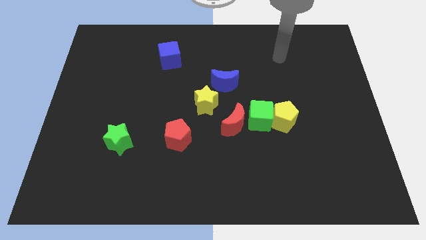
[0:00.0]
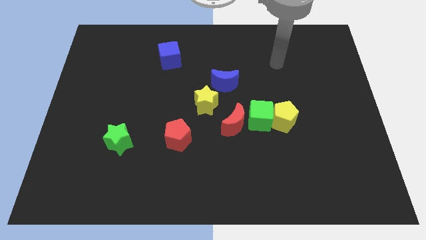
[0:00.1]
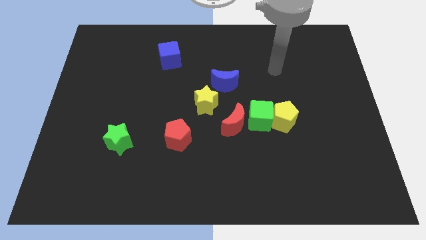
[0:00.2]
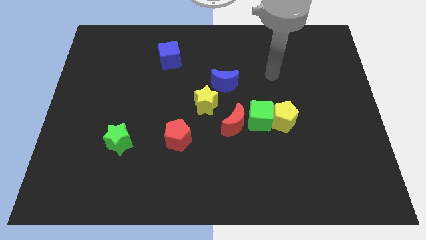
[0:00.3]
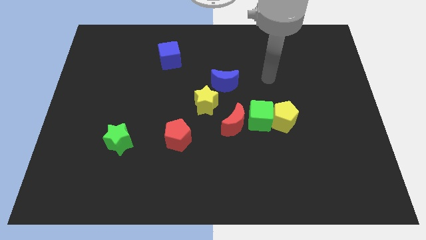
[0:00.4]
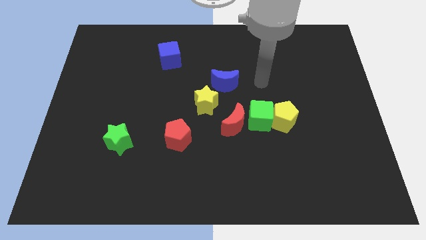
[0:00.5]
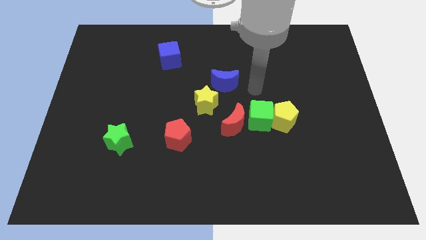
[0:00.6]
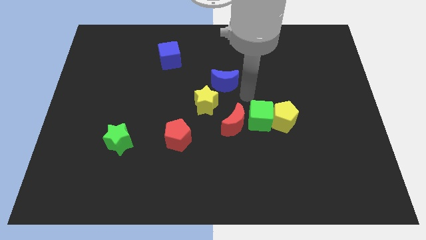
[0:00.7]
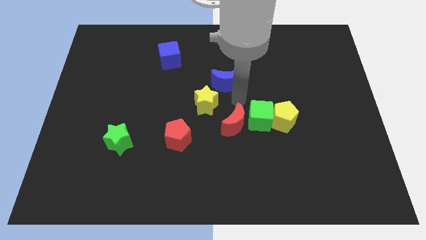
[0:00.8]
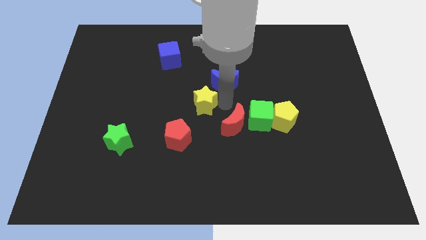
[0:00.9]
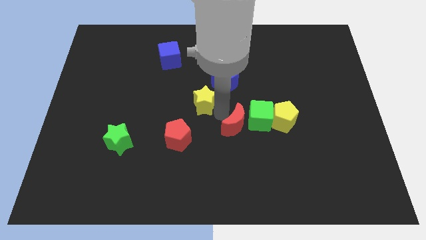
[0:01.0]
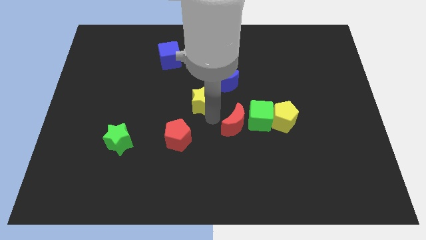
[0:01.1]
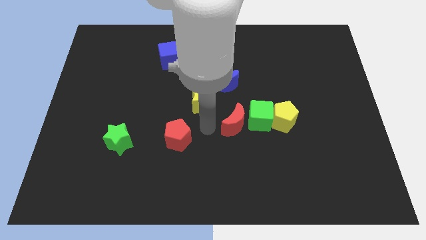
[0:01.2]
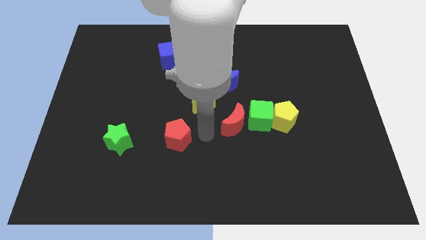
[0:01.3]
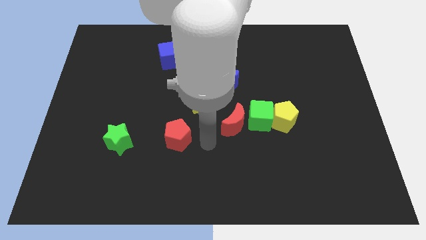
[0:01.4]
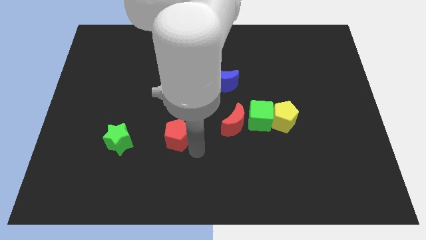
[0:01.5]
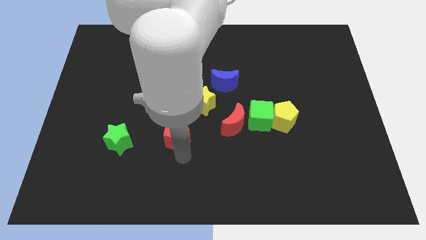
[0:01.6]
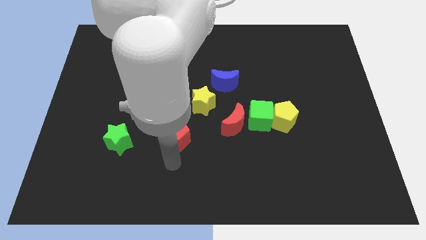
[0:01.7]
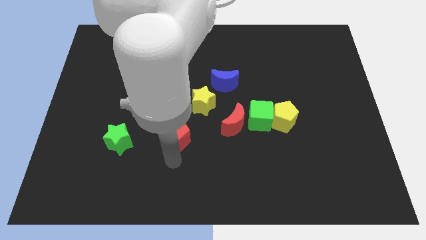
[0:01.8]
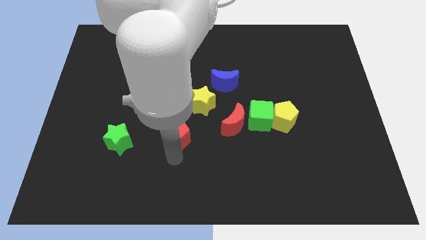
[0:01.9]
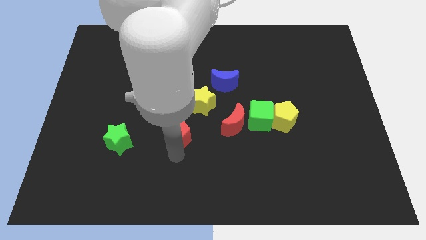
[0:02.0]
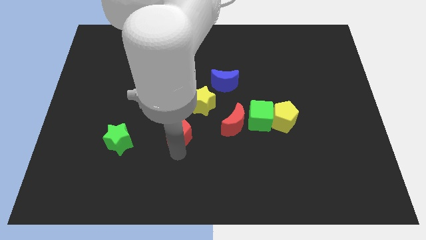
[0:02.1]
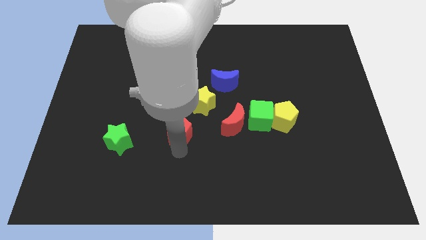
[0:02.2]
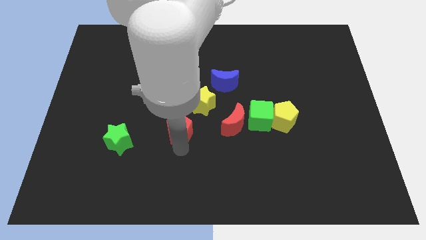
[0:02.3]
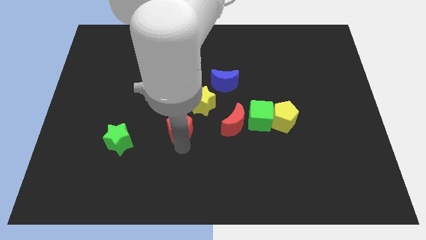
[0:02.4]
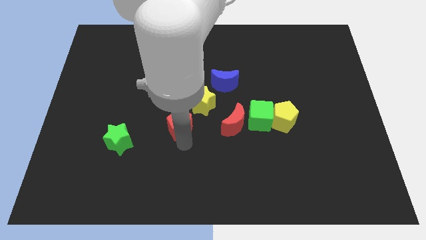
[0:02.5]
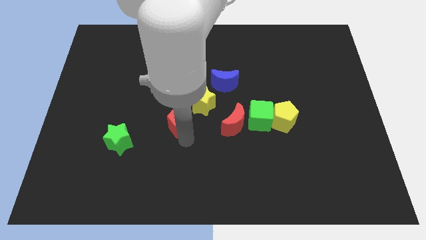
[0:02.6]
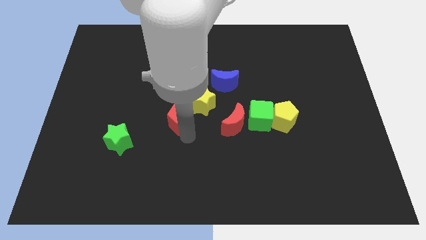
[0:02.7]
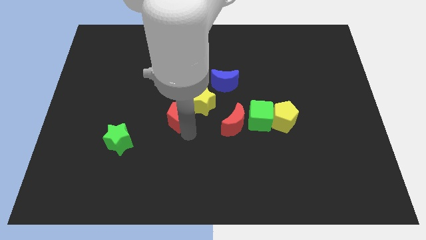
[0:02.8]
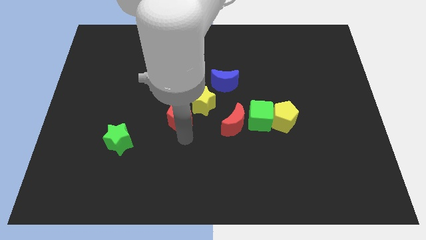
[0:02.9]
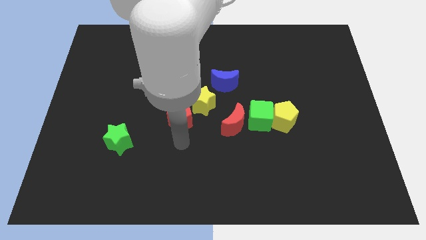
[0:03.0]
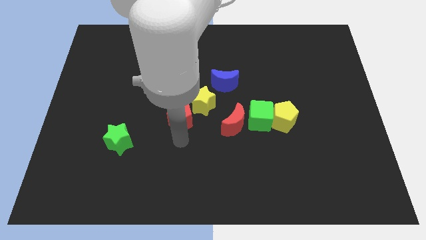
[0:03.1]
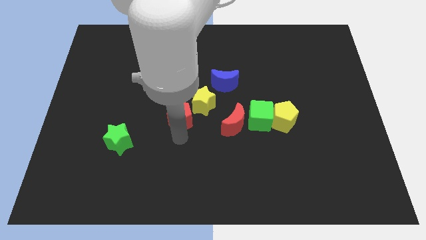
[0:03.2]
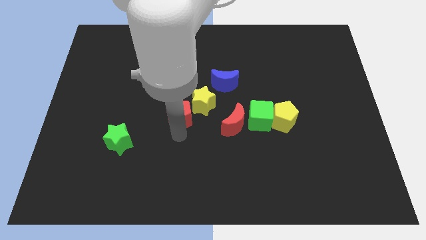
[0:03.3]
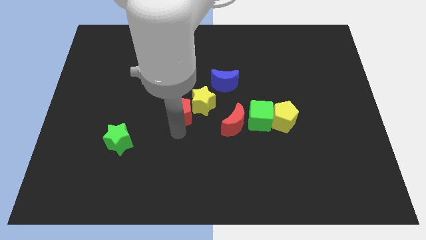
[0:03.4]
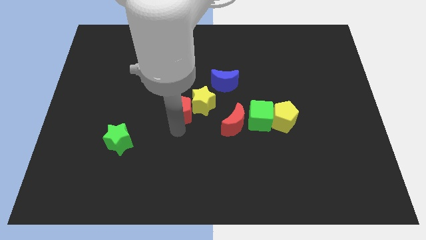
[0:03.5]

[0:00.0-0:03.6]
push the red pentagon a bit upwards

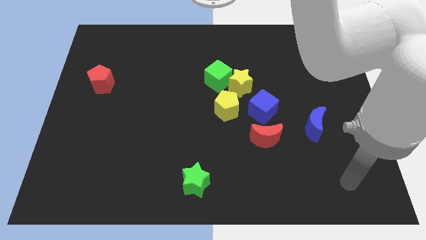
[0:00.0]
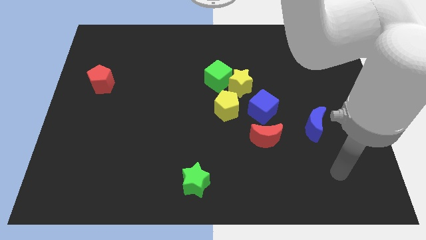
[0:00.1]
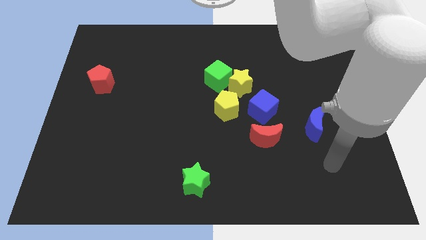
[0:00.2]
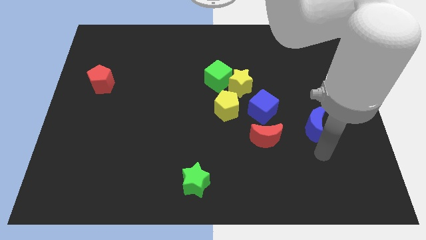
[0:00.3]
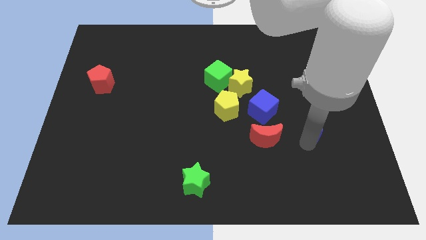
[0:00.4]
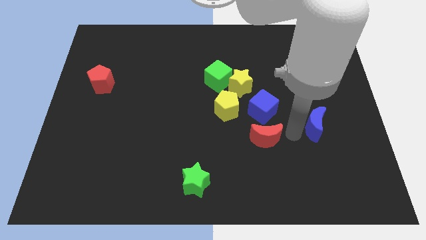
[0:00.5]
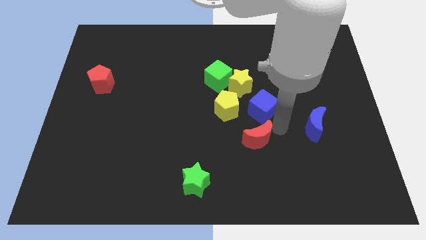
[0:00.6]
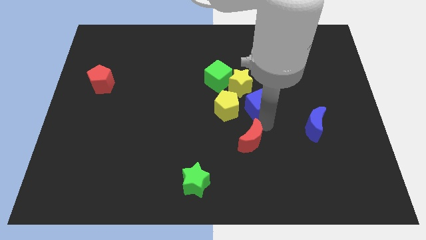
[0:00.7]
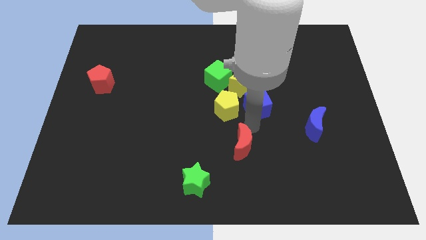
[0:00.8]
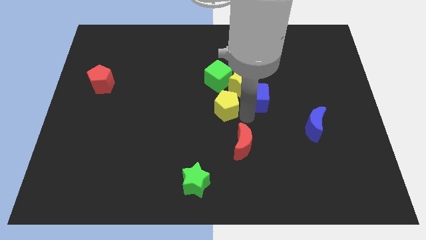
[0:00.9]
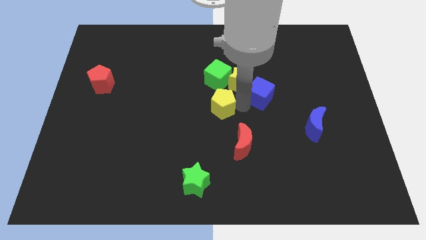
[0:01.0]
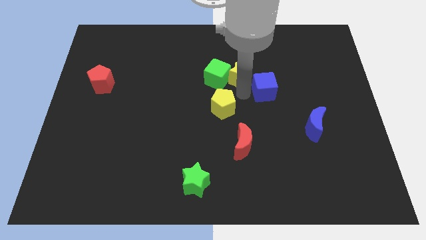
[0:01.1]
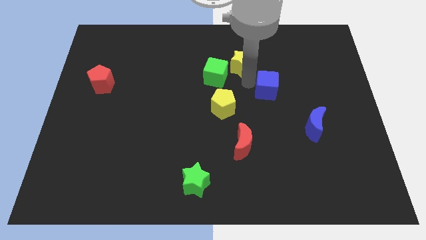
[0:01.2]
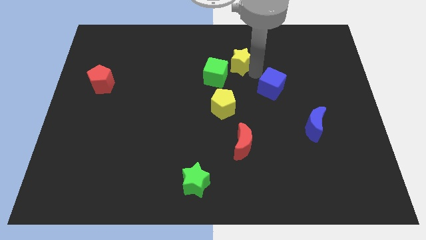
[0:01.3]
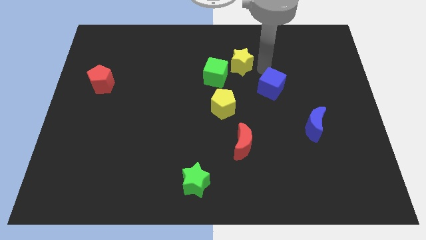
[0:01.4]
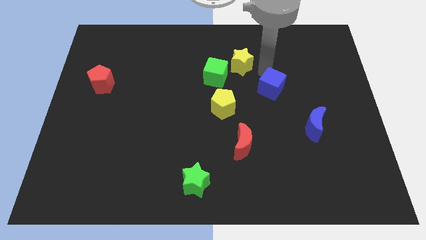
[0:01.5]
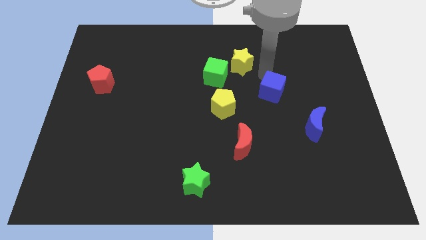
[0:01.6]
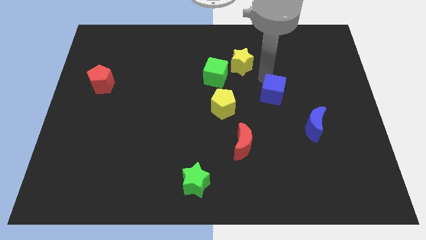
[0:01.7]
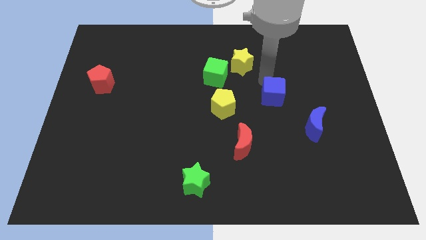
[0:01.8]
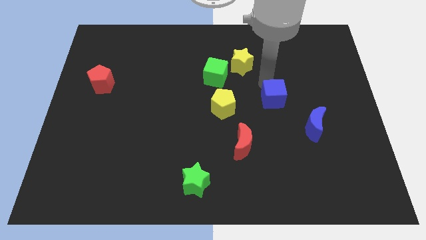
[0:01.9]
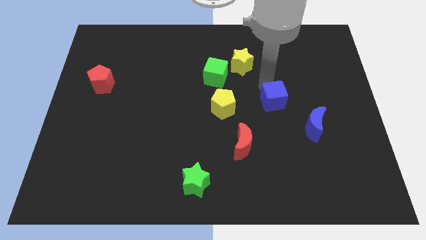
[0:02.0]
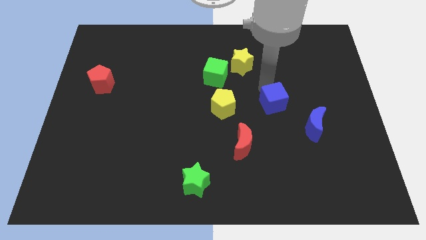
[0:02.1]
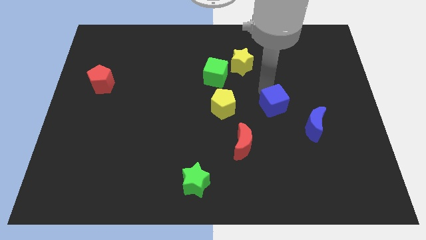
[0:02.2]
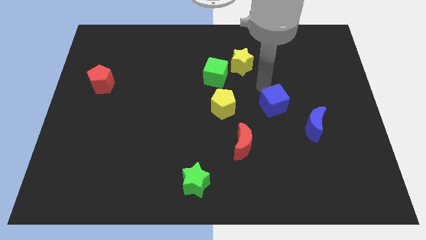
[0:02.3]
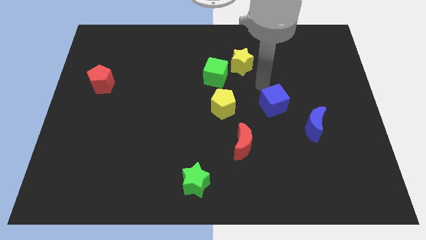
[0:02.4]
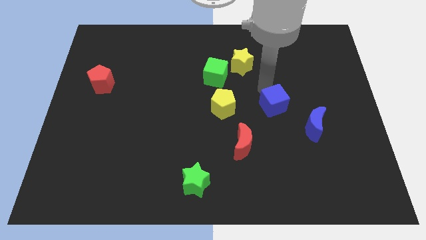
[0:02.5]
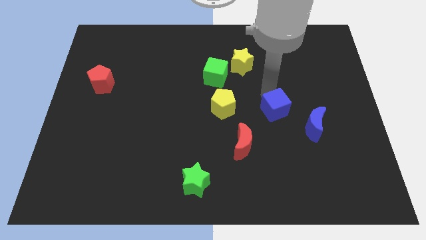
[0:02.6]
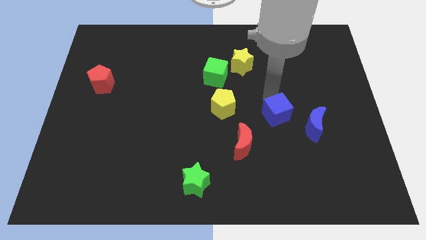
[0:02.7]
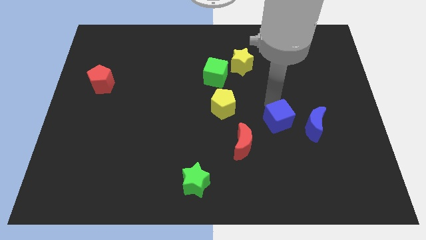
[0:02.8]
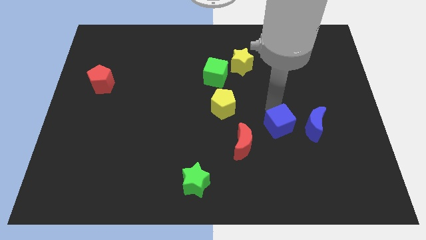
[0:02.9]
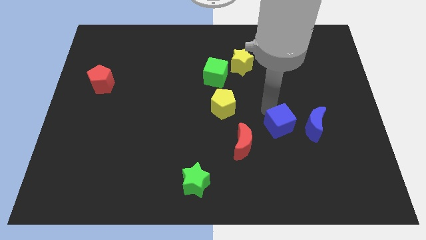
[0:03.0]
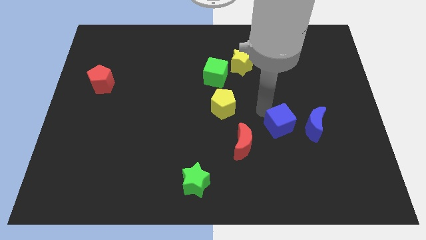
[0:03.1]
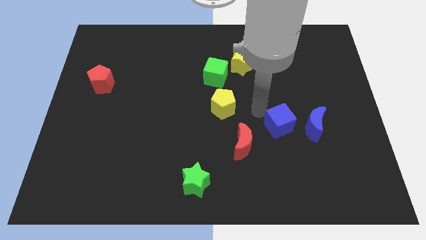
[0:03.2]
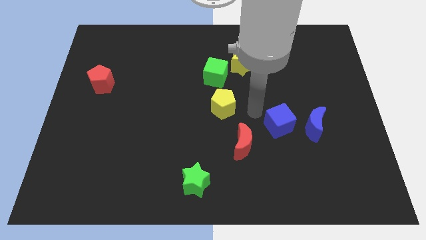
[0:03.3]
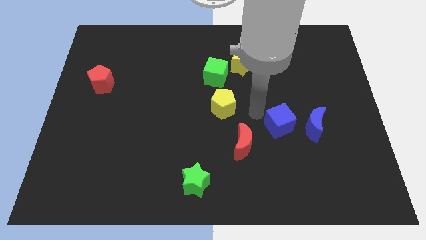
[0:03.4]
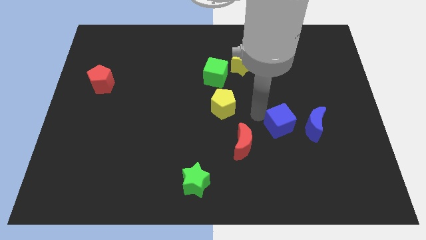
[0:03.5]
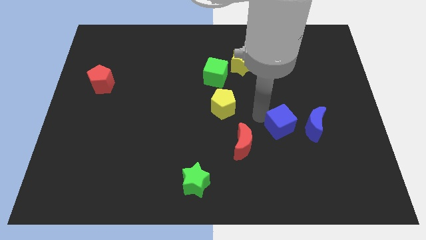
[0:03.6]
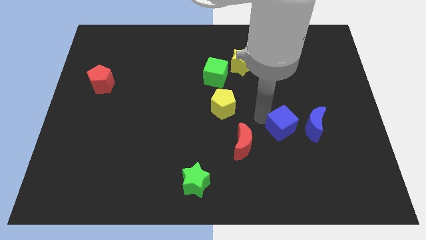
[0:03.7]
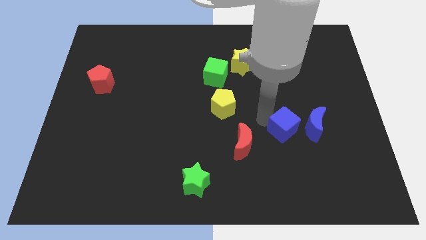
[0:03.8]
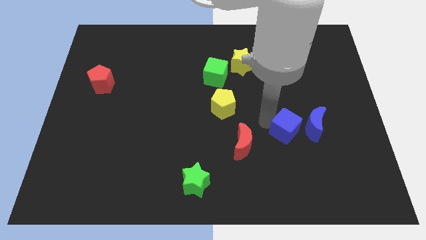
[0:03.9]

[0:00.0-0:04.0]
slide the blue cube down and to the right diagonally somewhat

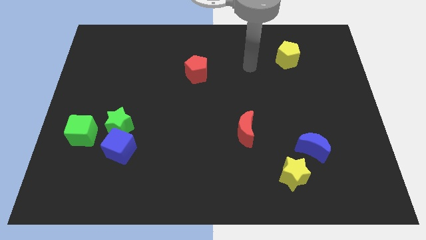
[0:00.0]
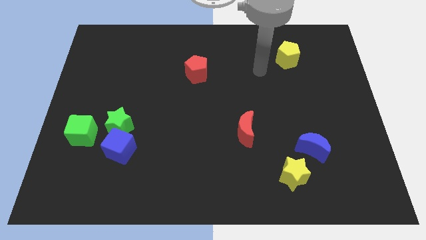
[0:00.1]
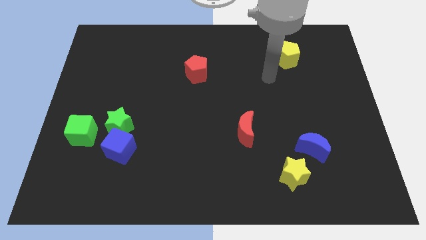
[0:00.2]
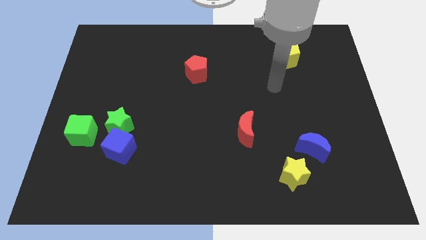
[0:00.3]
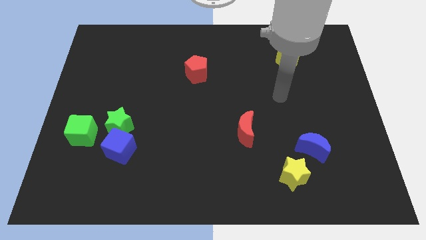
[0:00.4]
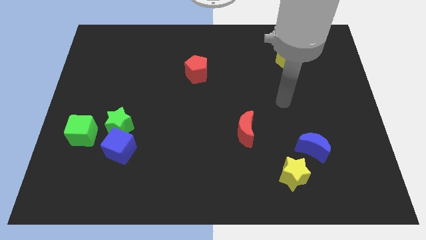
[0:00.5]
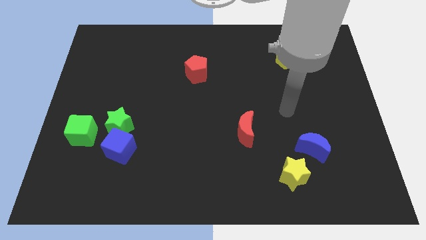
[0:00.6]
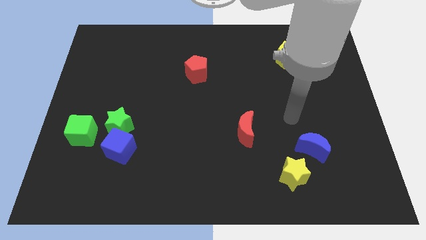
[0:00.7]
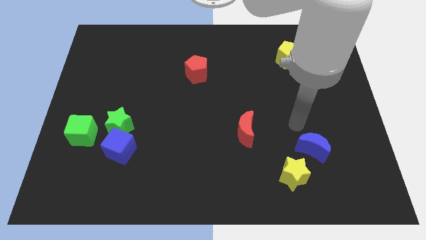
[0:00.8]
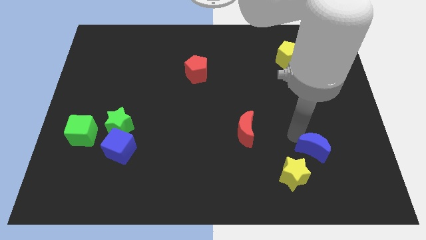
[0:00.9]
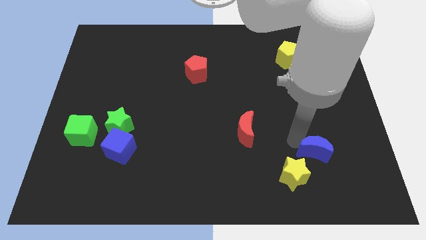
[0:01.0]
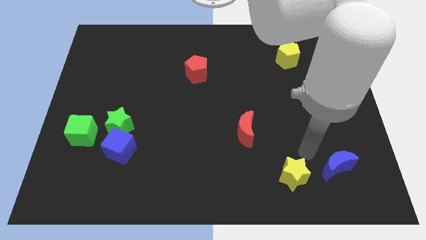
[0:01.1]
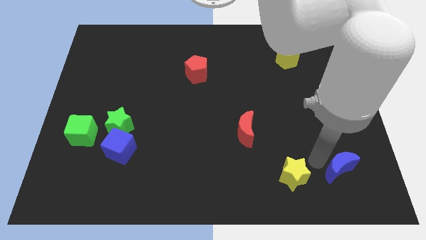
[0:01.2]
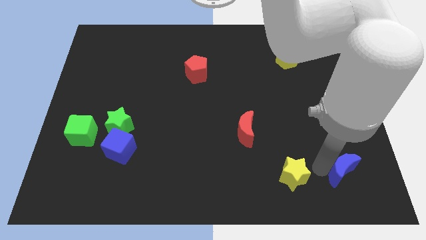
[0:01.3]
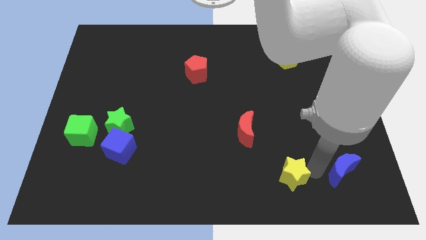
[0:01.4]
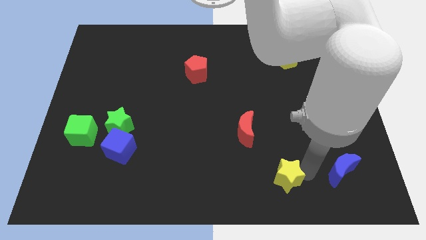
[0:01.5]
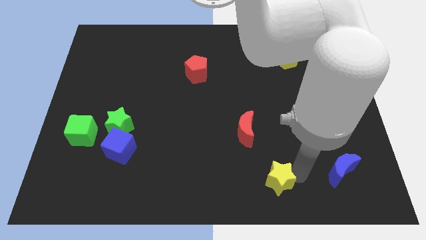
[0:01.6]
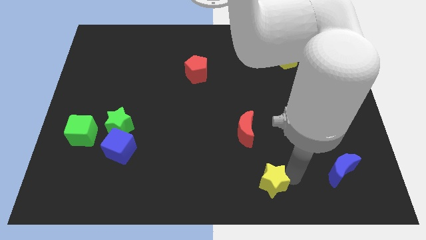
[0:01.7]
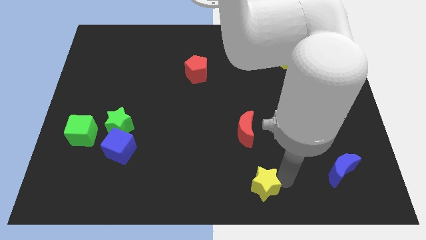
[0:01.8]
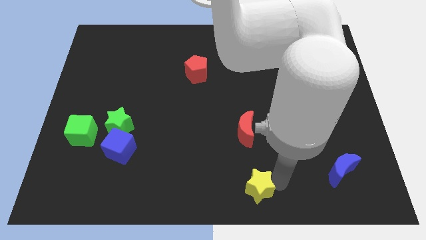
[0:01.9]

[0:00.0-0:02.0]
move the yellow star slightly to the left
